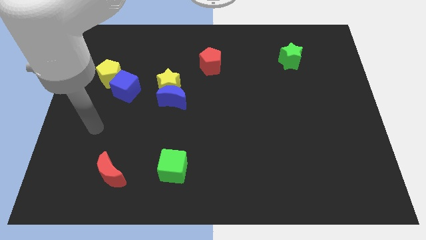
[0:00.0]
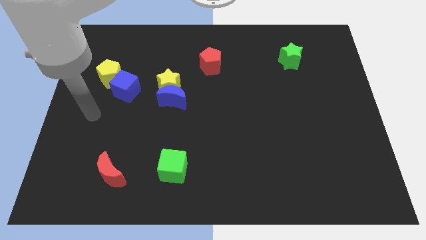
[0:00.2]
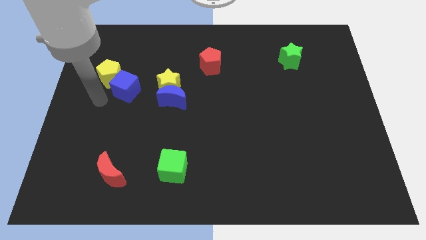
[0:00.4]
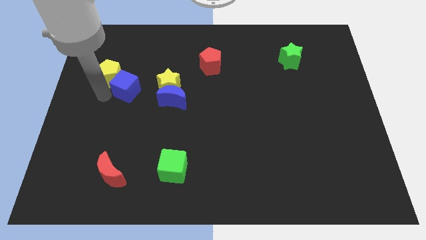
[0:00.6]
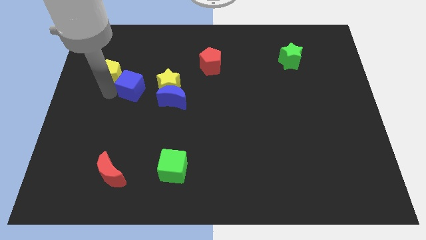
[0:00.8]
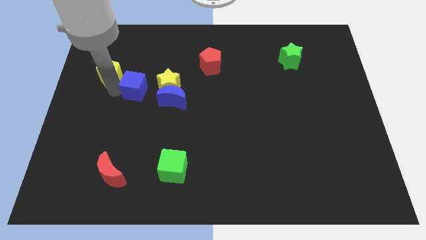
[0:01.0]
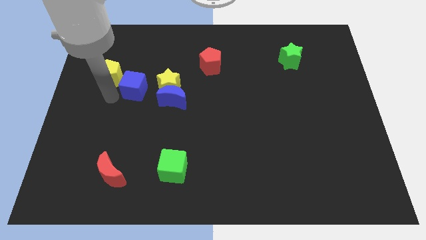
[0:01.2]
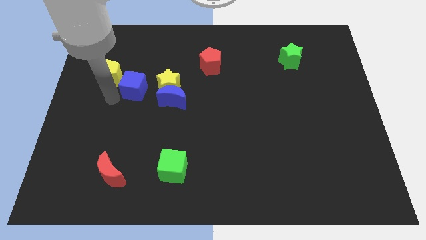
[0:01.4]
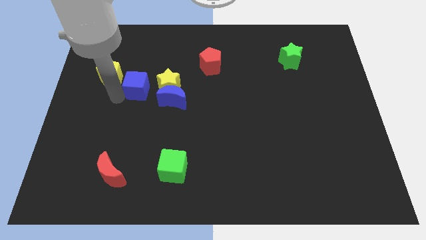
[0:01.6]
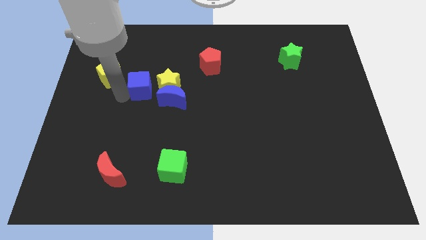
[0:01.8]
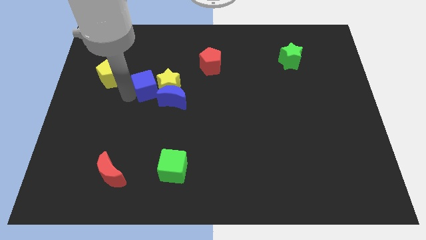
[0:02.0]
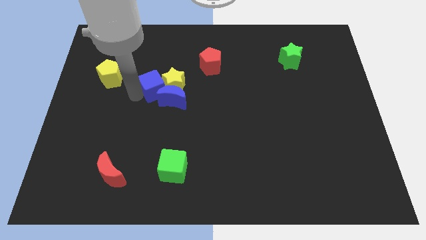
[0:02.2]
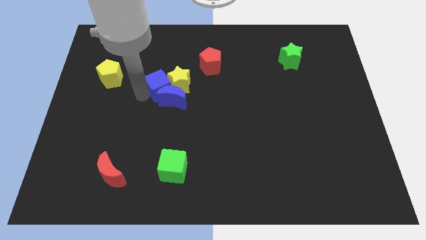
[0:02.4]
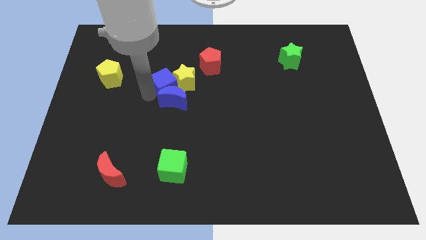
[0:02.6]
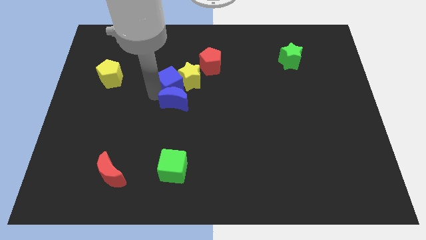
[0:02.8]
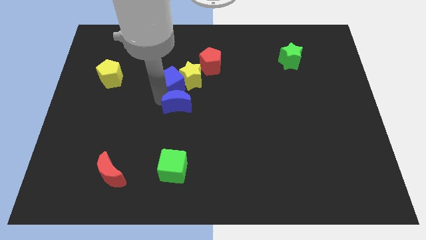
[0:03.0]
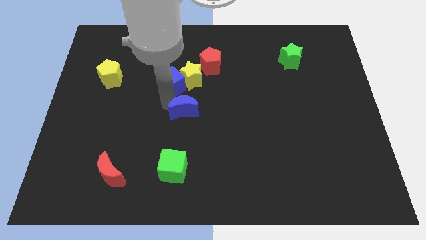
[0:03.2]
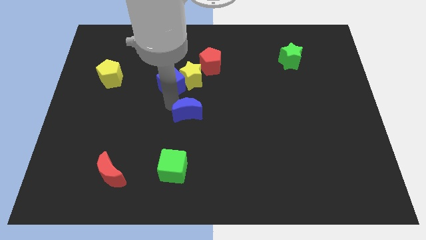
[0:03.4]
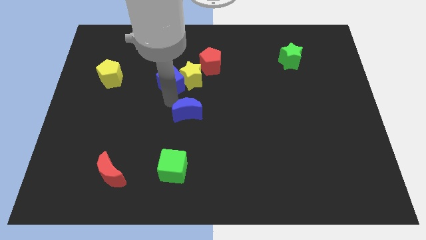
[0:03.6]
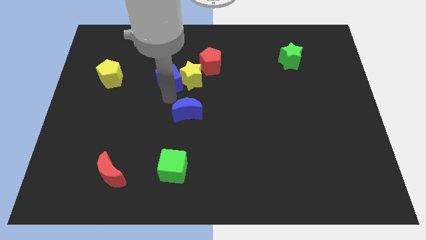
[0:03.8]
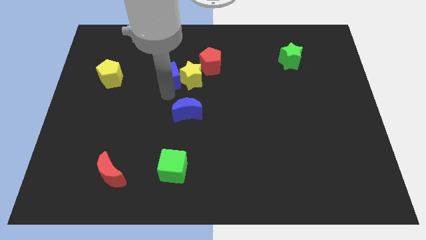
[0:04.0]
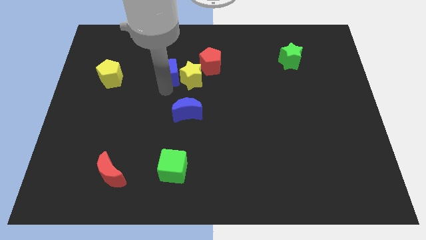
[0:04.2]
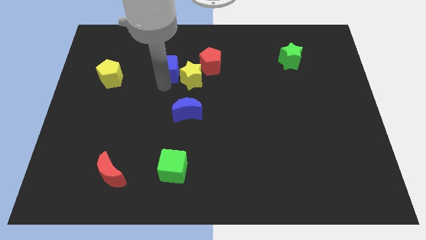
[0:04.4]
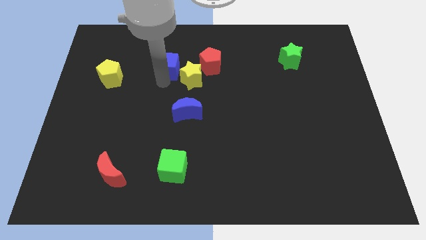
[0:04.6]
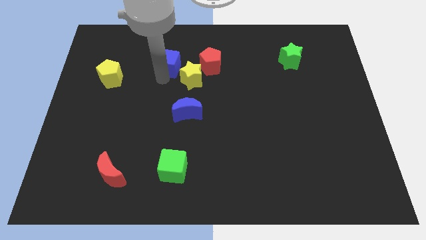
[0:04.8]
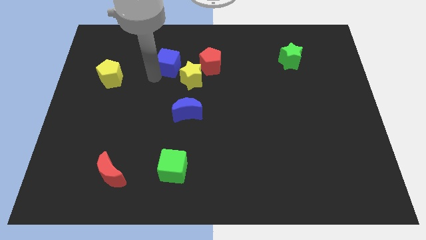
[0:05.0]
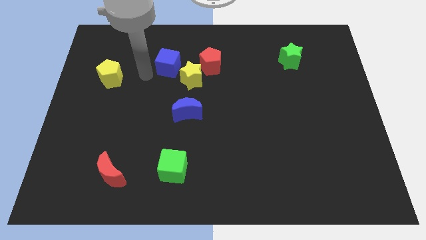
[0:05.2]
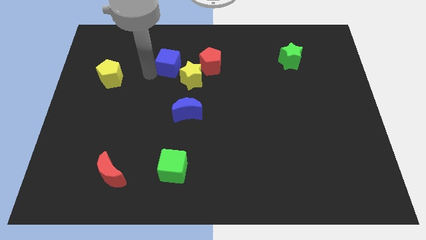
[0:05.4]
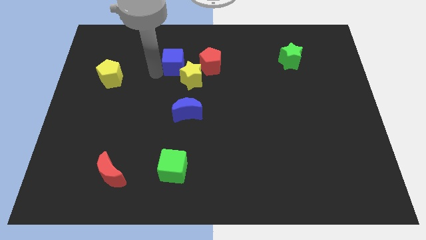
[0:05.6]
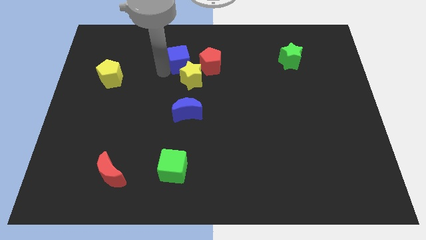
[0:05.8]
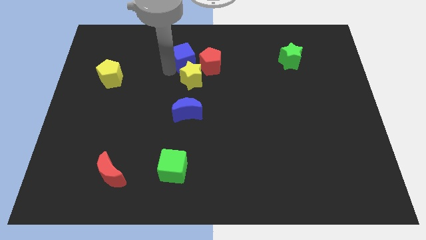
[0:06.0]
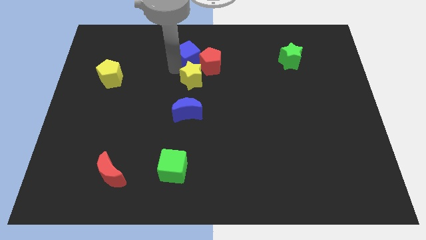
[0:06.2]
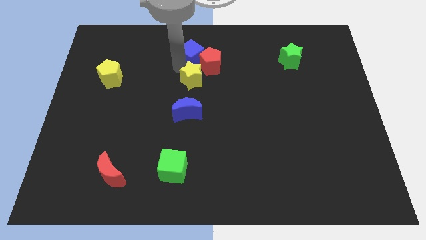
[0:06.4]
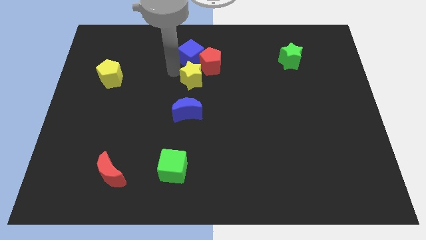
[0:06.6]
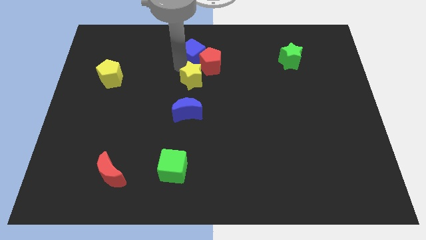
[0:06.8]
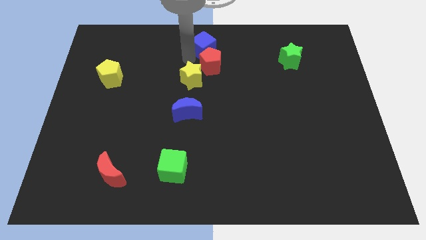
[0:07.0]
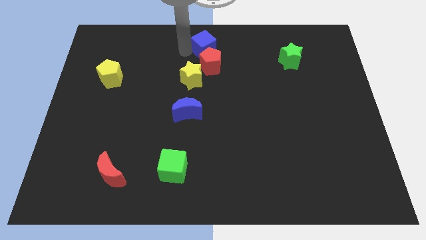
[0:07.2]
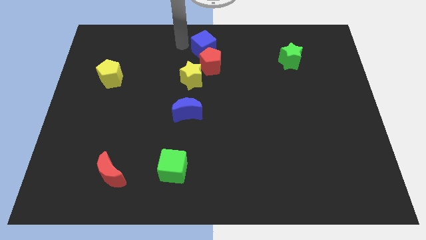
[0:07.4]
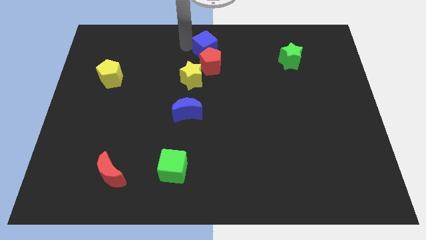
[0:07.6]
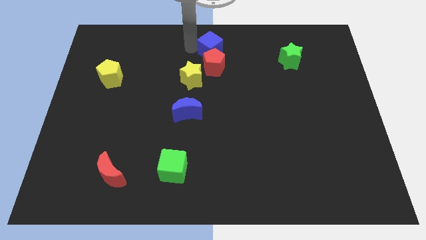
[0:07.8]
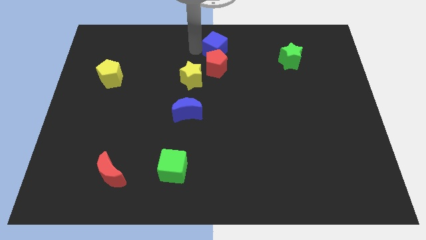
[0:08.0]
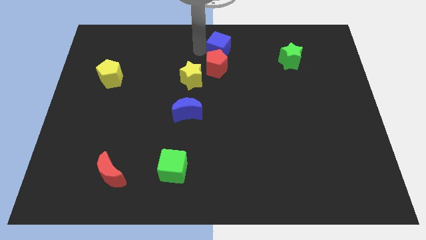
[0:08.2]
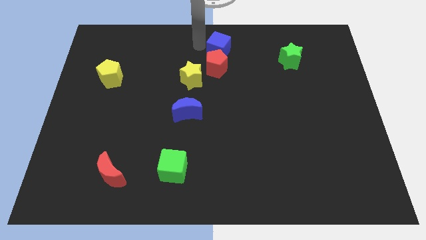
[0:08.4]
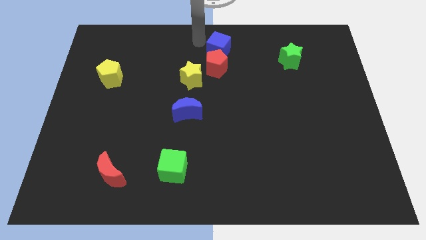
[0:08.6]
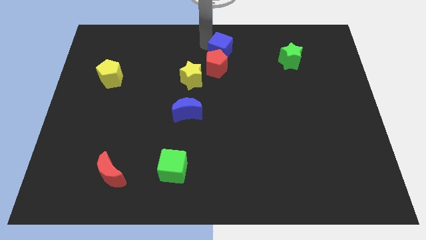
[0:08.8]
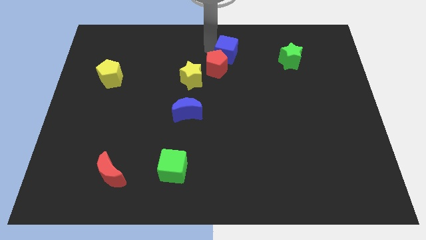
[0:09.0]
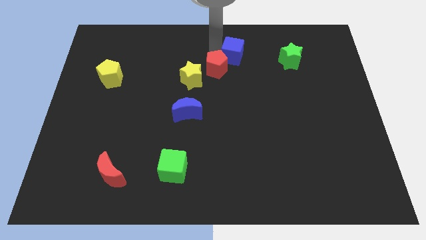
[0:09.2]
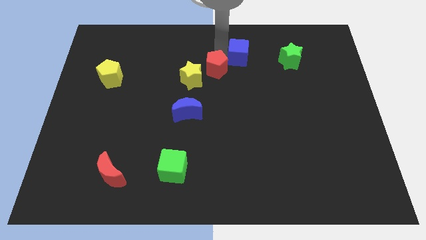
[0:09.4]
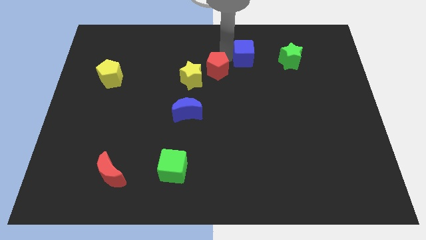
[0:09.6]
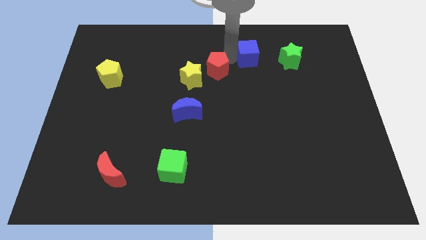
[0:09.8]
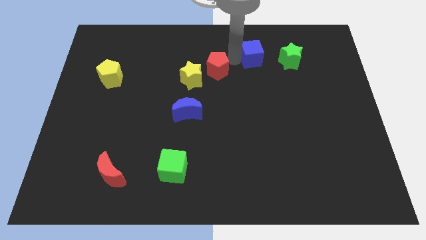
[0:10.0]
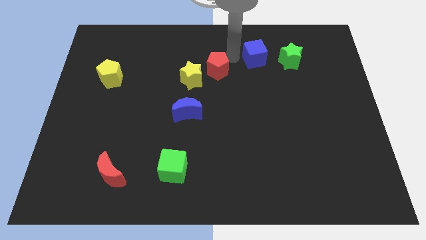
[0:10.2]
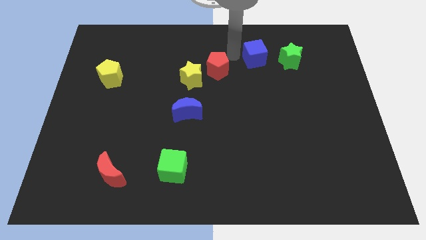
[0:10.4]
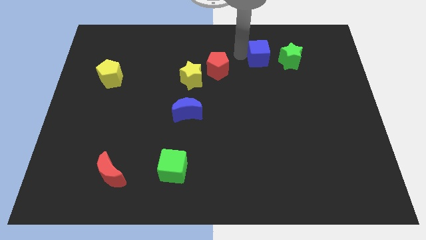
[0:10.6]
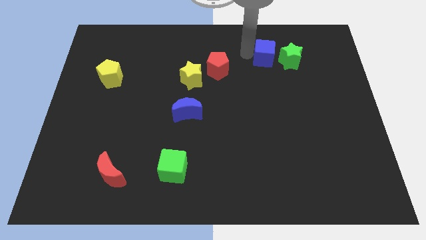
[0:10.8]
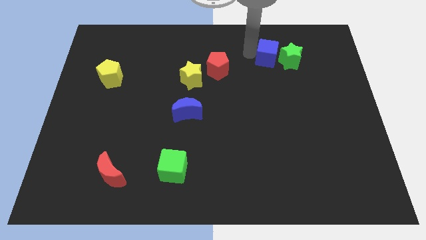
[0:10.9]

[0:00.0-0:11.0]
put the blue cube close to the green star

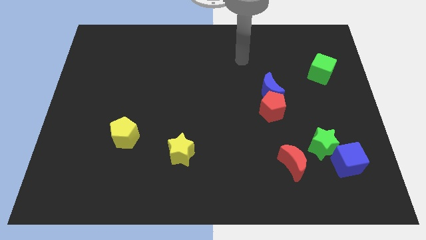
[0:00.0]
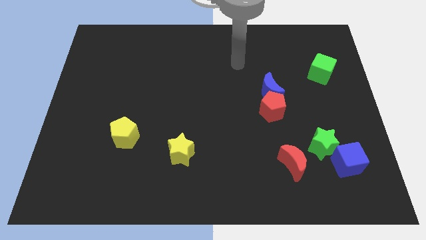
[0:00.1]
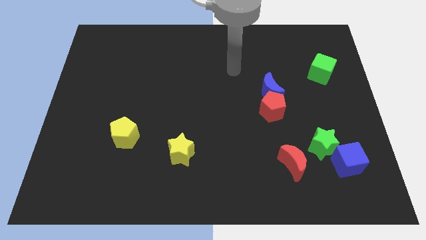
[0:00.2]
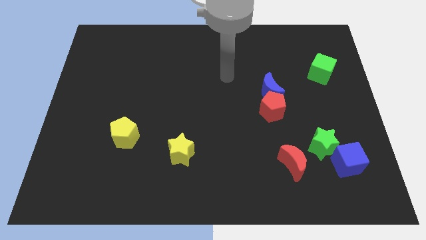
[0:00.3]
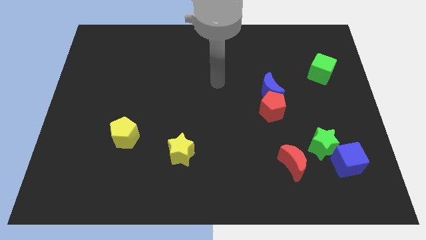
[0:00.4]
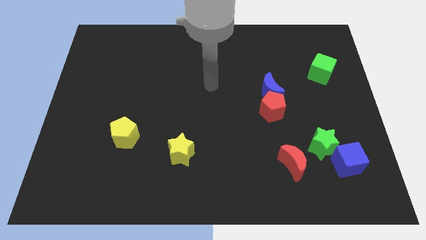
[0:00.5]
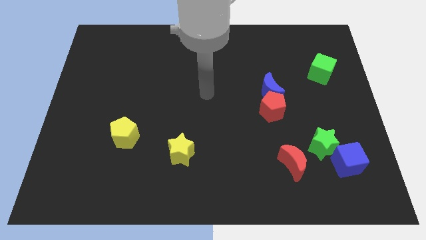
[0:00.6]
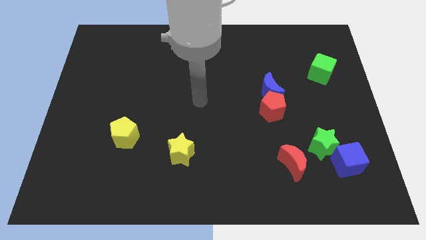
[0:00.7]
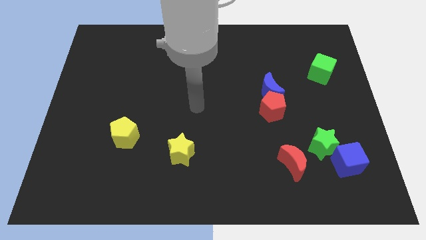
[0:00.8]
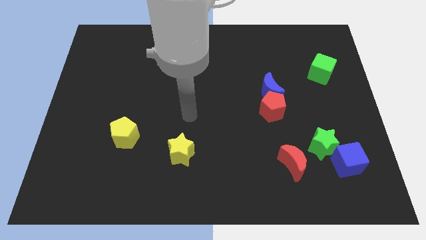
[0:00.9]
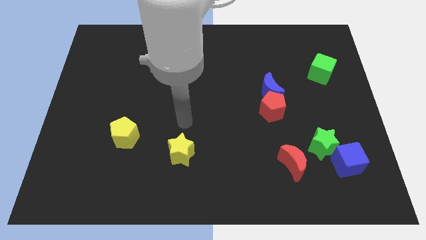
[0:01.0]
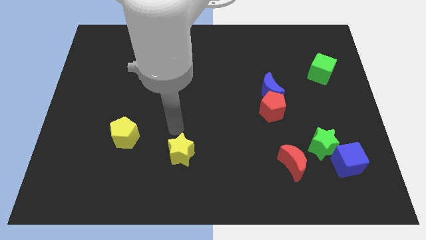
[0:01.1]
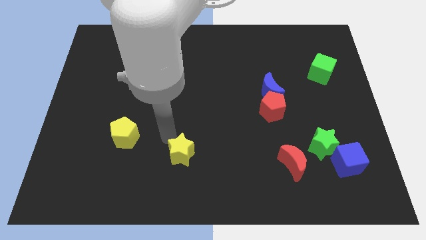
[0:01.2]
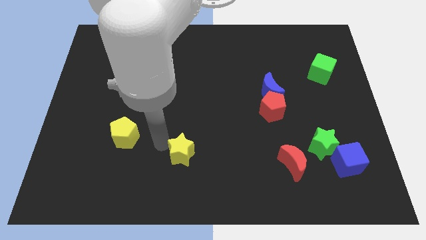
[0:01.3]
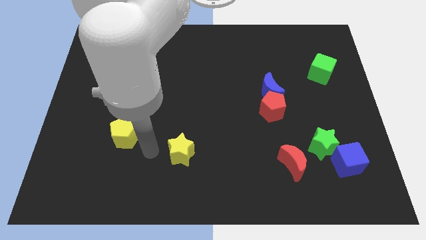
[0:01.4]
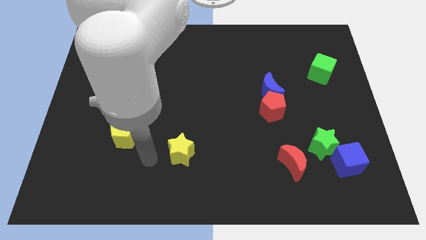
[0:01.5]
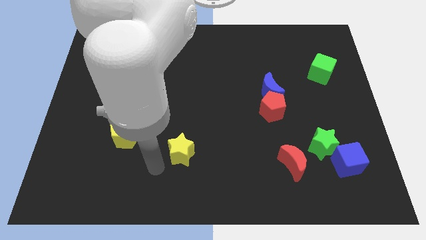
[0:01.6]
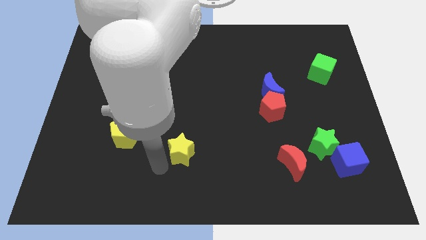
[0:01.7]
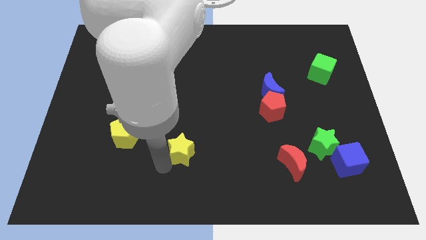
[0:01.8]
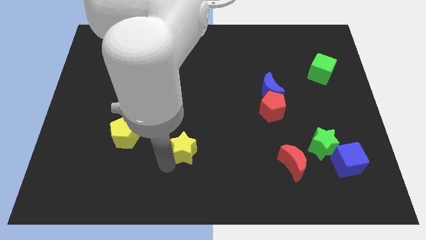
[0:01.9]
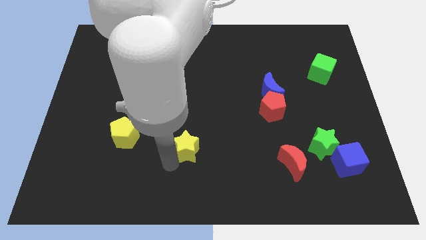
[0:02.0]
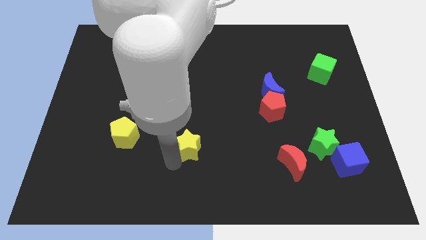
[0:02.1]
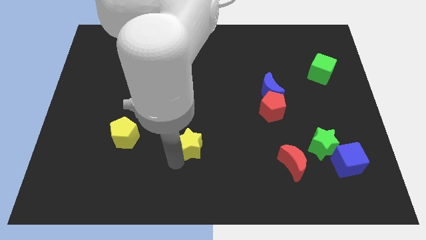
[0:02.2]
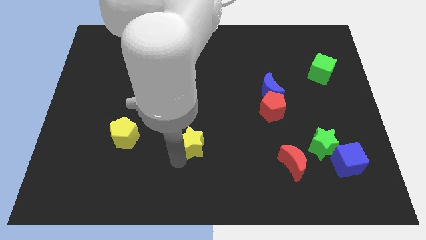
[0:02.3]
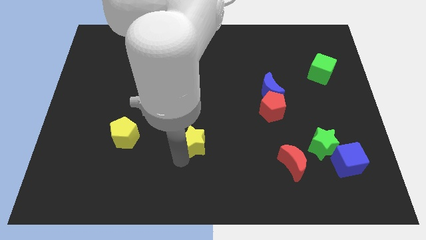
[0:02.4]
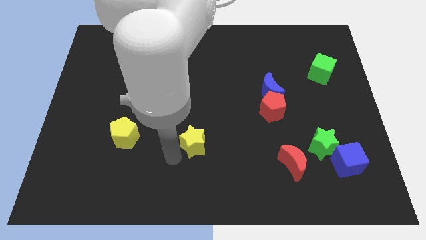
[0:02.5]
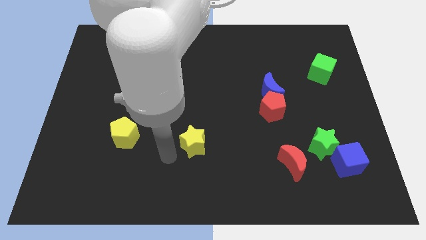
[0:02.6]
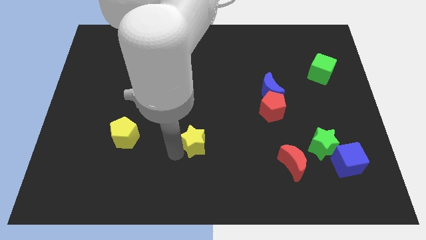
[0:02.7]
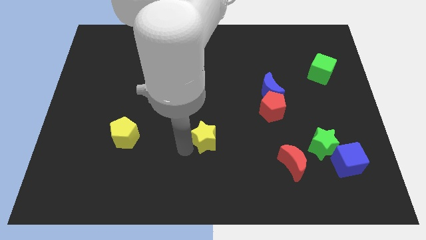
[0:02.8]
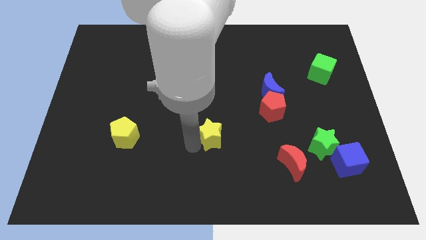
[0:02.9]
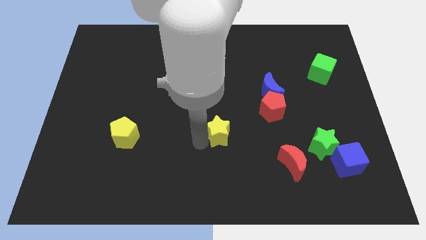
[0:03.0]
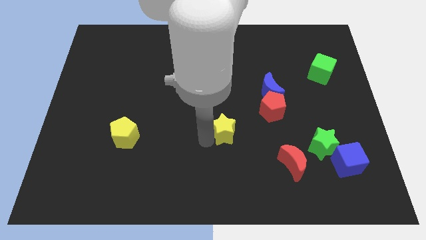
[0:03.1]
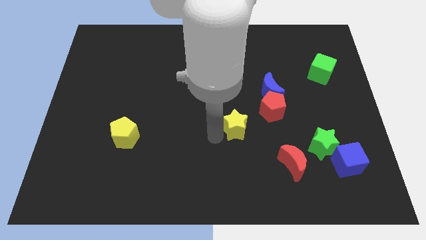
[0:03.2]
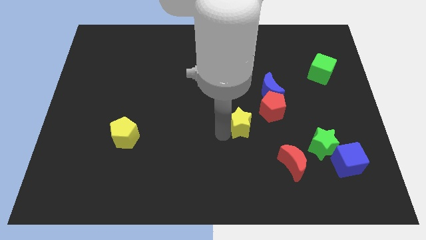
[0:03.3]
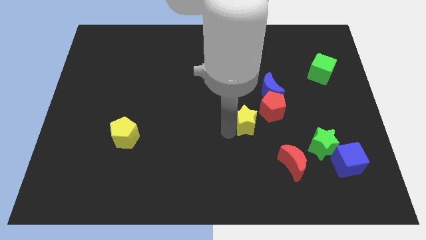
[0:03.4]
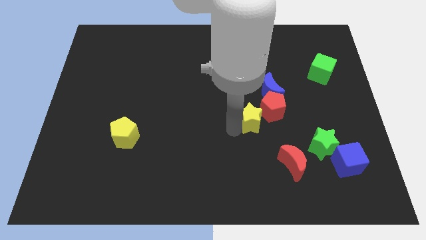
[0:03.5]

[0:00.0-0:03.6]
put the yellow star next to the red pentagon
